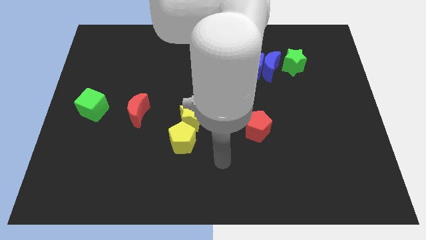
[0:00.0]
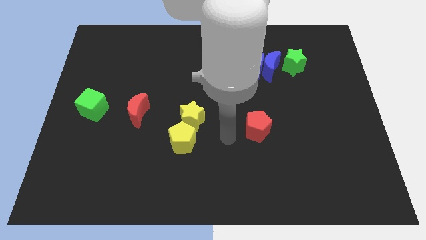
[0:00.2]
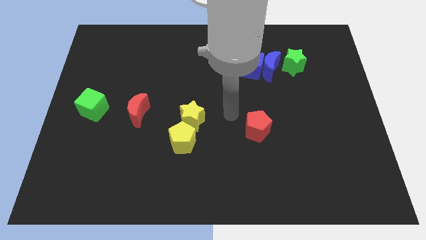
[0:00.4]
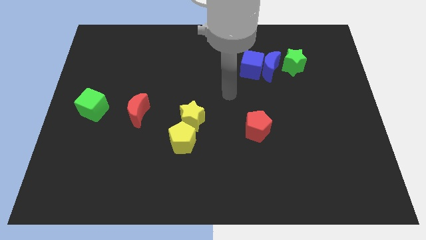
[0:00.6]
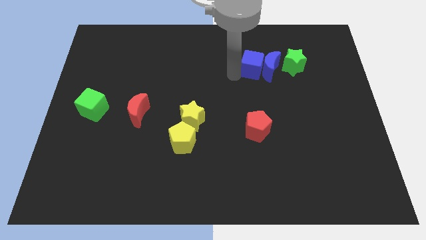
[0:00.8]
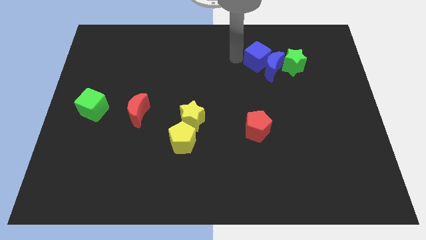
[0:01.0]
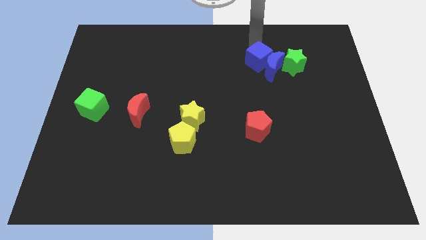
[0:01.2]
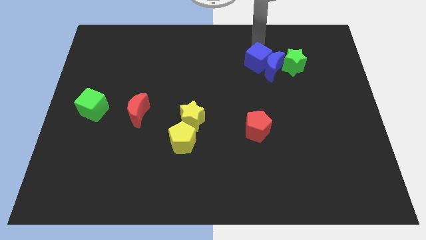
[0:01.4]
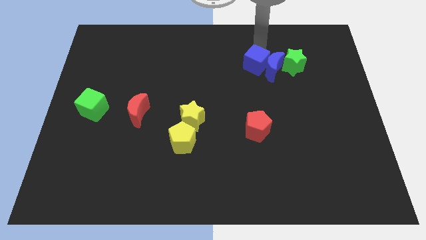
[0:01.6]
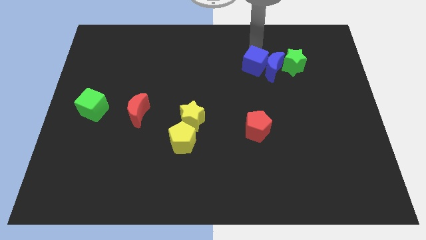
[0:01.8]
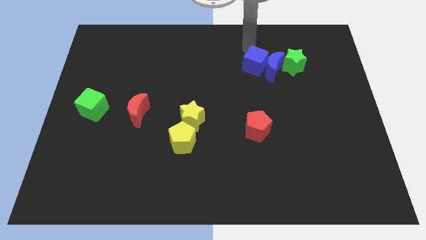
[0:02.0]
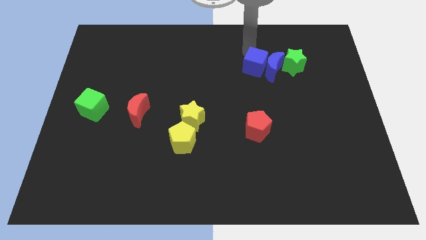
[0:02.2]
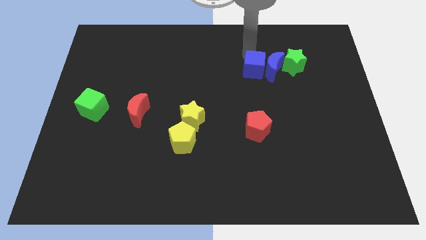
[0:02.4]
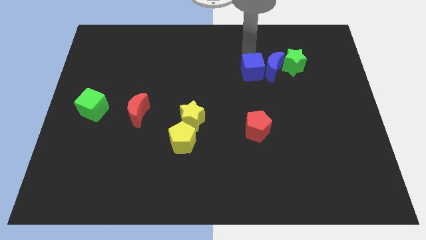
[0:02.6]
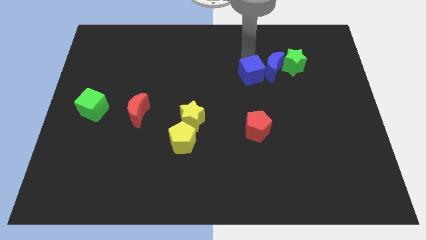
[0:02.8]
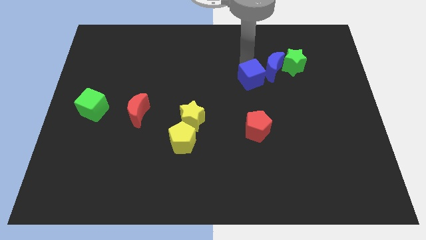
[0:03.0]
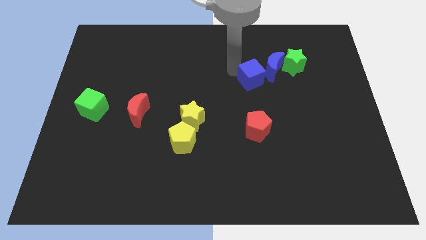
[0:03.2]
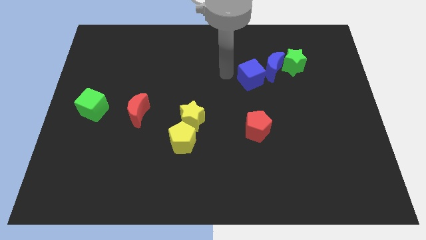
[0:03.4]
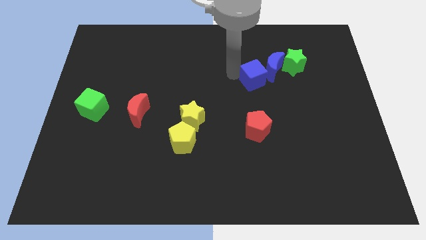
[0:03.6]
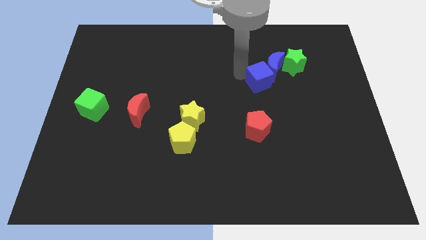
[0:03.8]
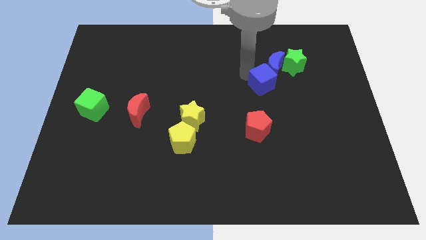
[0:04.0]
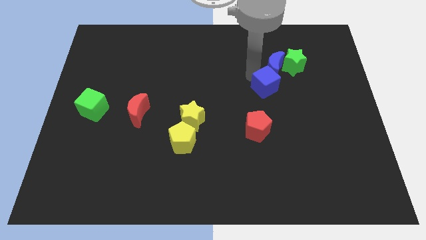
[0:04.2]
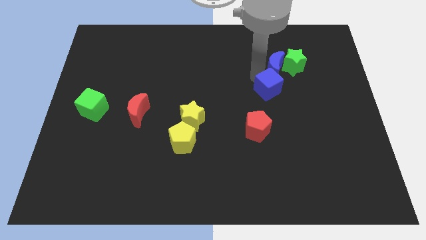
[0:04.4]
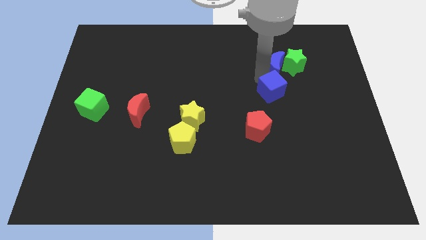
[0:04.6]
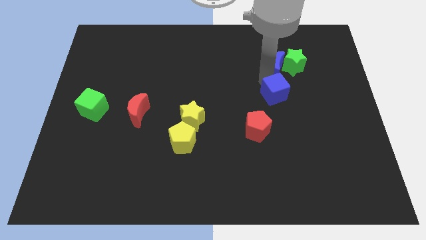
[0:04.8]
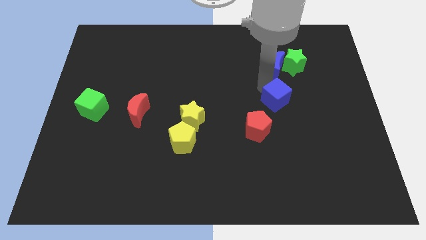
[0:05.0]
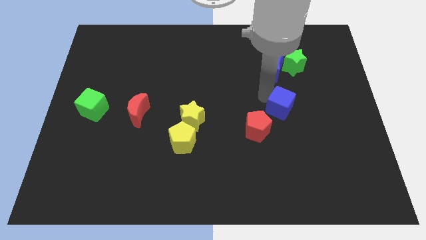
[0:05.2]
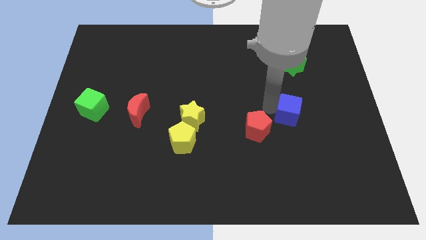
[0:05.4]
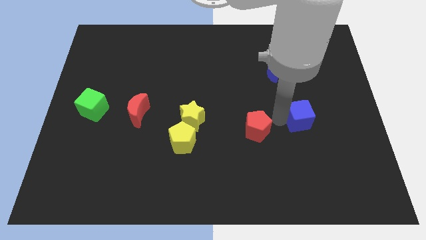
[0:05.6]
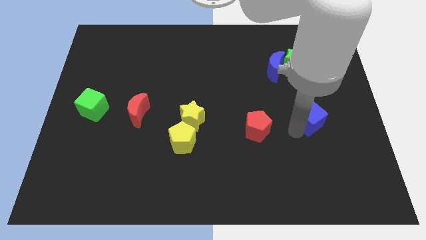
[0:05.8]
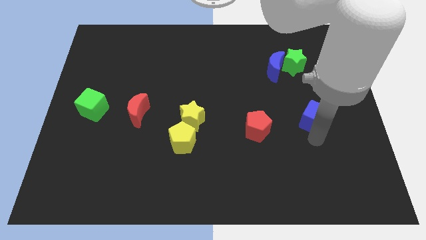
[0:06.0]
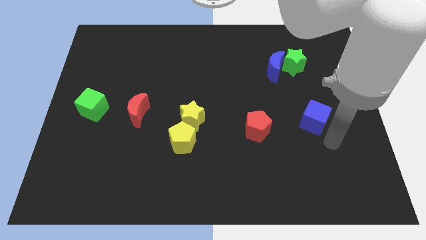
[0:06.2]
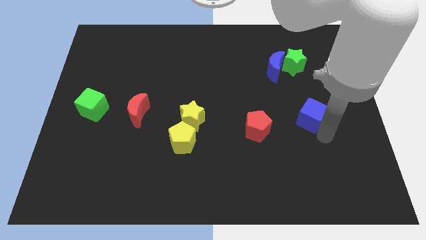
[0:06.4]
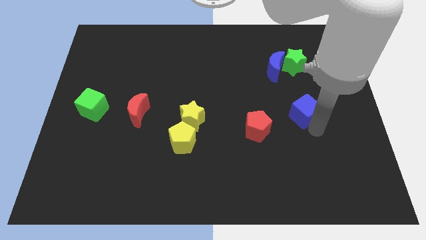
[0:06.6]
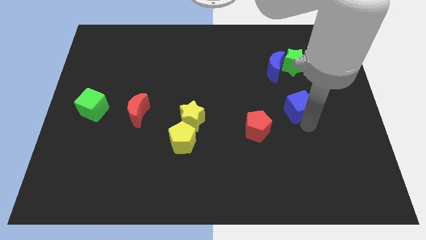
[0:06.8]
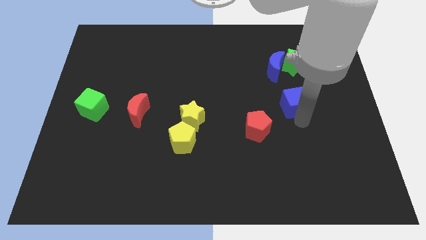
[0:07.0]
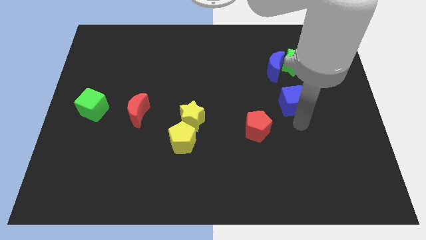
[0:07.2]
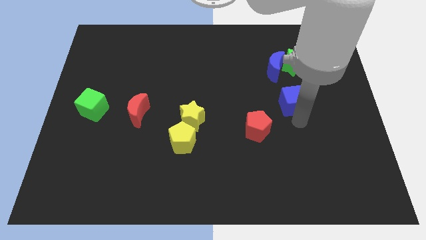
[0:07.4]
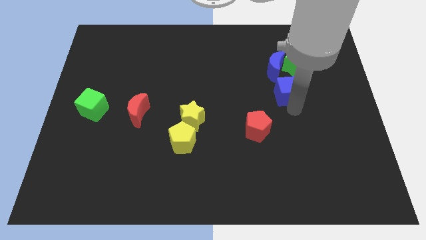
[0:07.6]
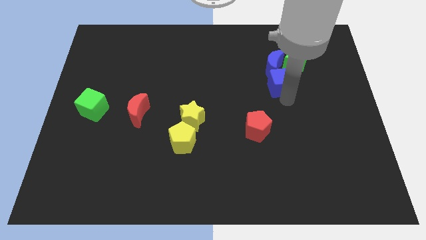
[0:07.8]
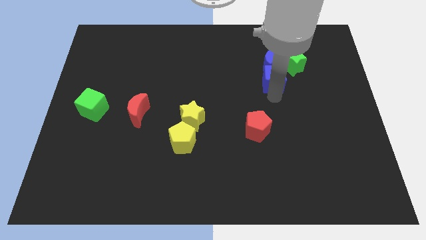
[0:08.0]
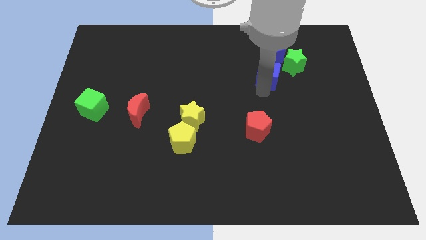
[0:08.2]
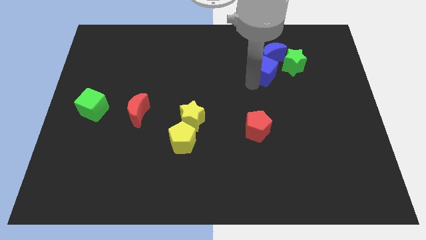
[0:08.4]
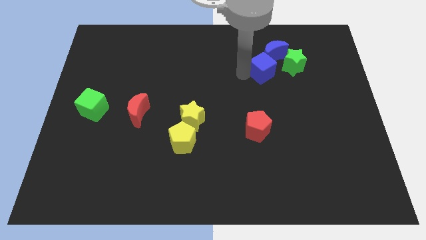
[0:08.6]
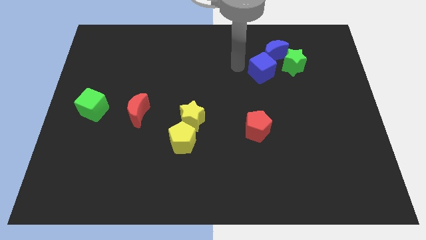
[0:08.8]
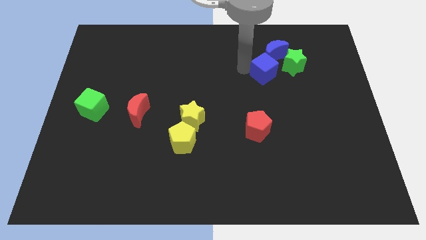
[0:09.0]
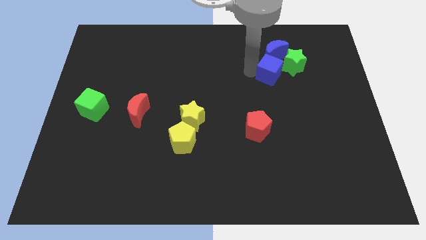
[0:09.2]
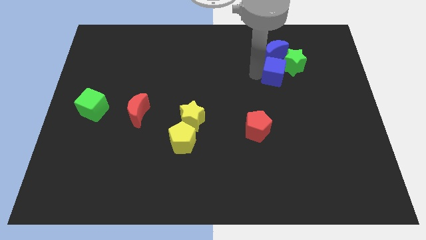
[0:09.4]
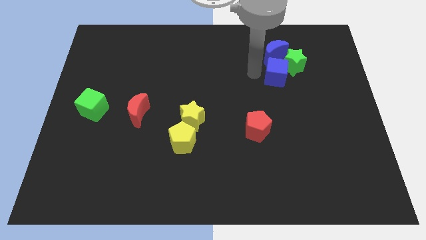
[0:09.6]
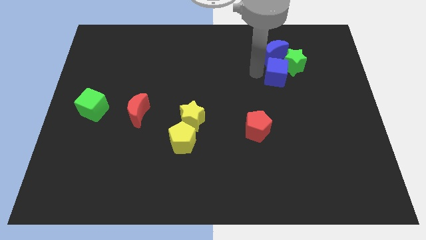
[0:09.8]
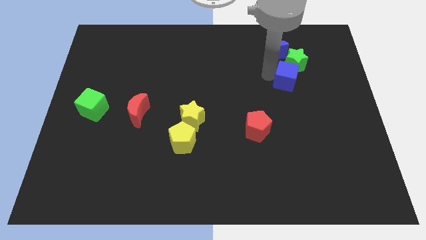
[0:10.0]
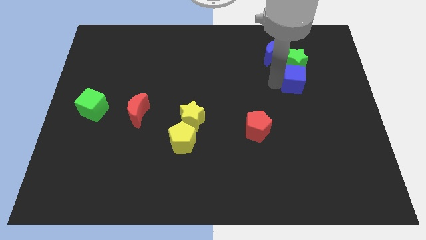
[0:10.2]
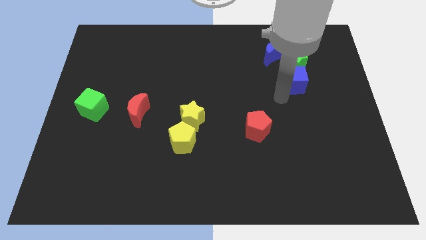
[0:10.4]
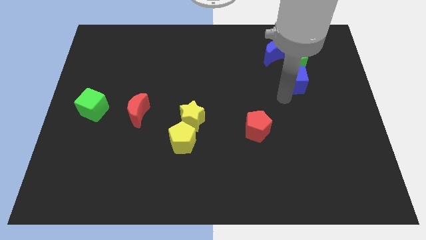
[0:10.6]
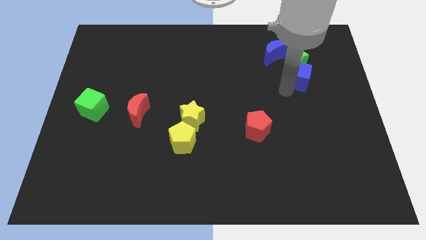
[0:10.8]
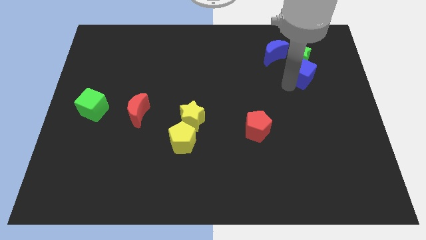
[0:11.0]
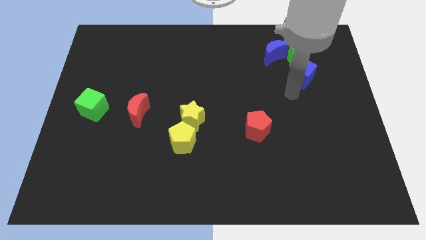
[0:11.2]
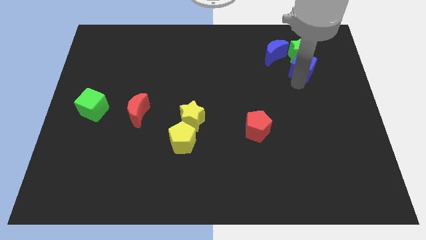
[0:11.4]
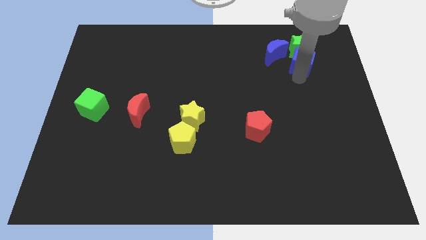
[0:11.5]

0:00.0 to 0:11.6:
move the blue cube right of the blue moon

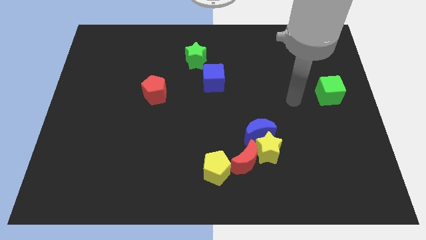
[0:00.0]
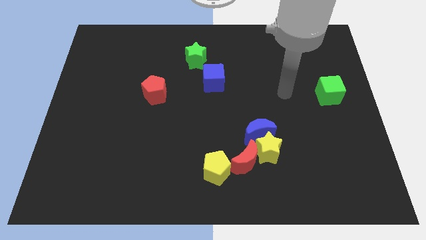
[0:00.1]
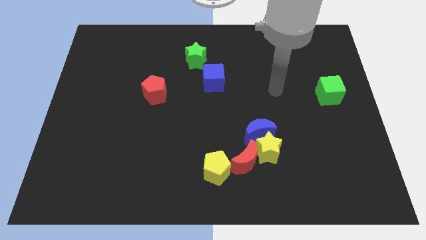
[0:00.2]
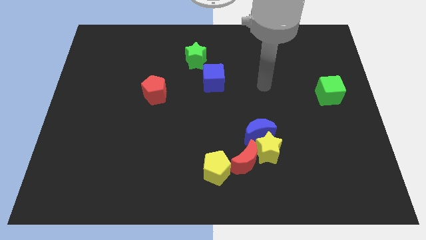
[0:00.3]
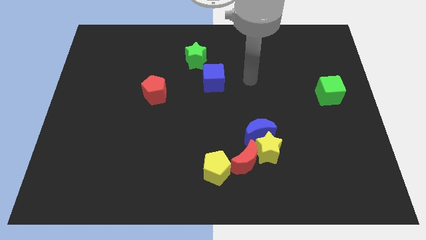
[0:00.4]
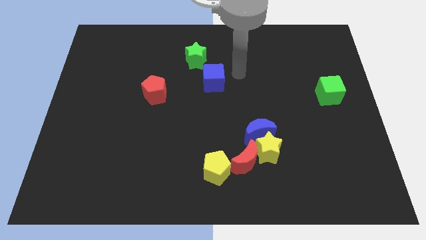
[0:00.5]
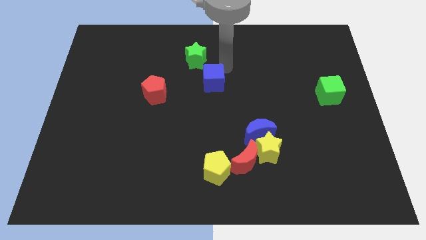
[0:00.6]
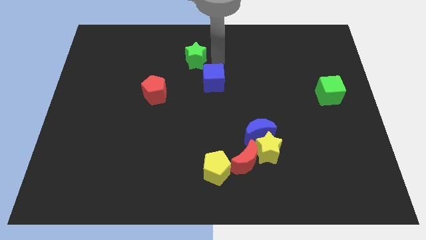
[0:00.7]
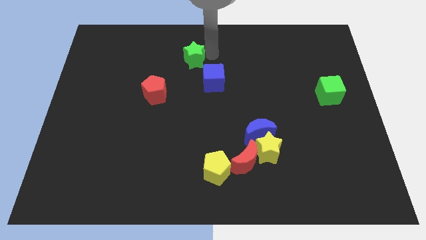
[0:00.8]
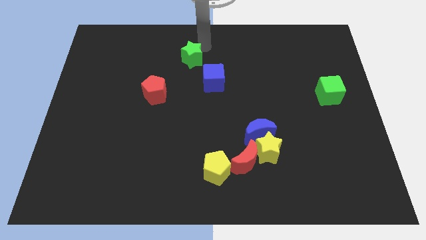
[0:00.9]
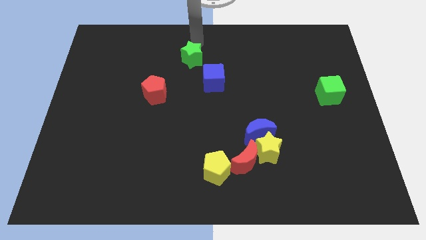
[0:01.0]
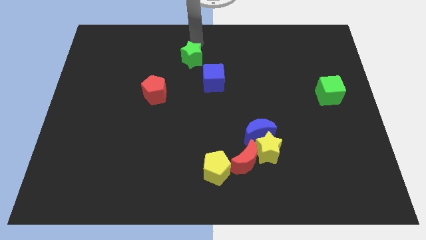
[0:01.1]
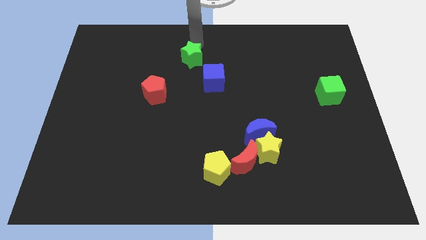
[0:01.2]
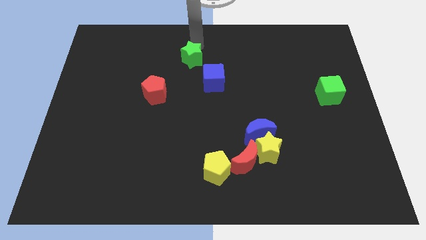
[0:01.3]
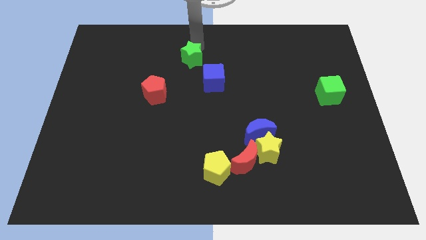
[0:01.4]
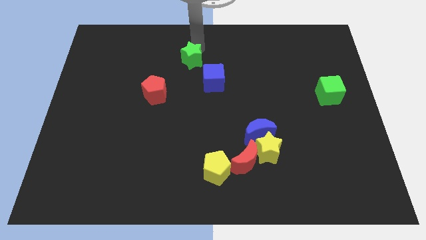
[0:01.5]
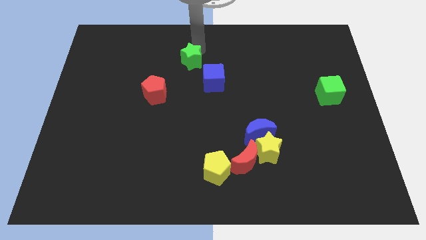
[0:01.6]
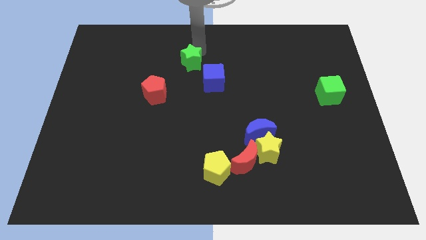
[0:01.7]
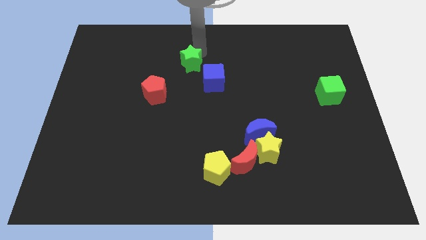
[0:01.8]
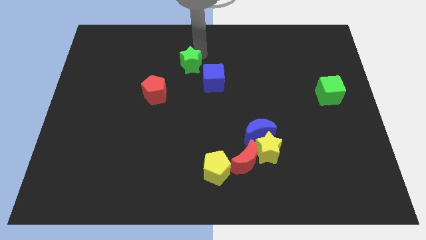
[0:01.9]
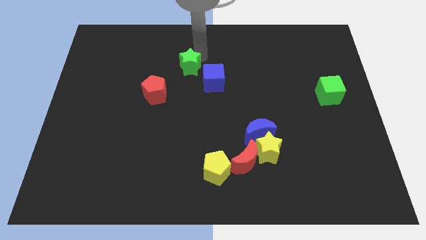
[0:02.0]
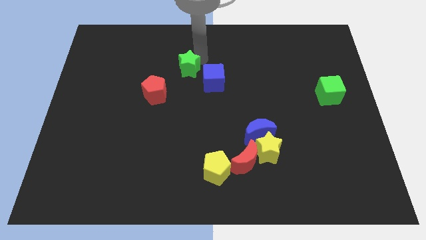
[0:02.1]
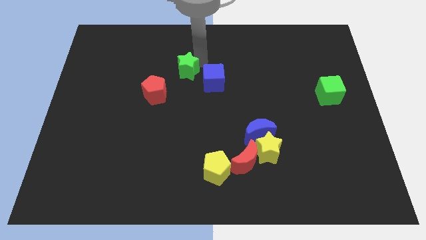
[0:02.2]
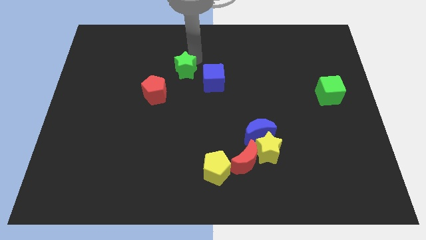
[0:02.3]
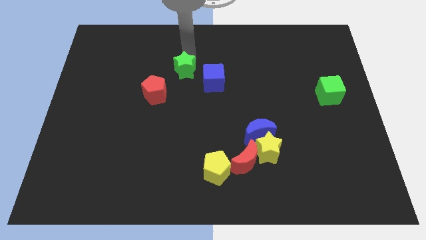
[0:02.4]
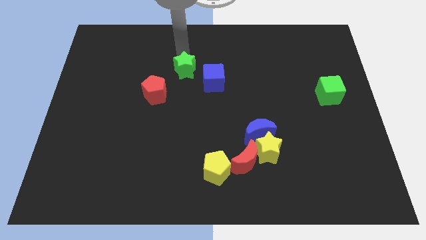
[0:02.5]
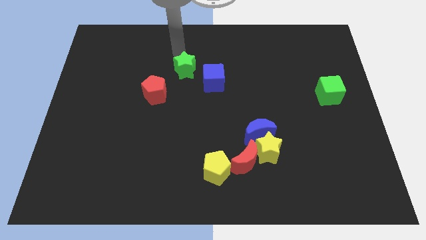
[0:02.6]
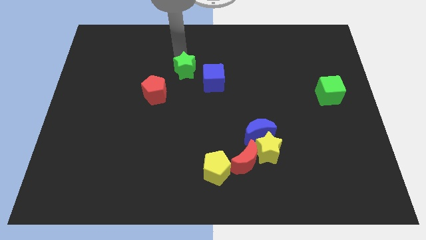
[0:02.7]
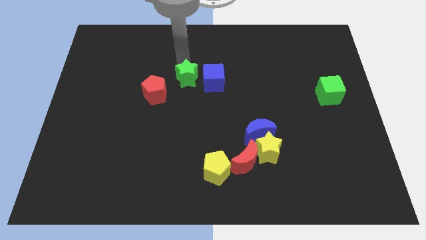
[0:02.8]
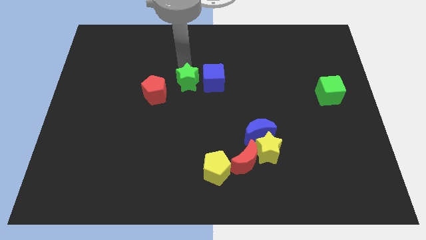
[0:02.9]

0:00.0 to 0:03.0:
push the green star to the right side of the red pentagon
